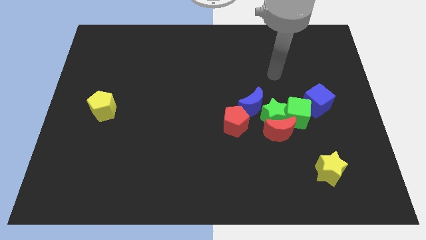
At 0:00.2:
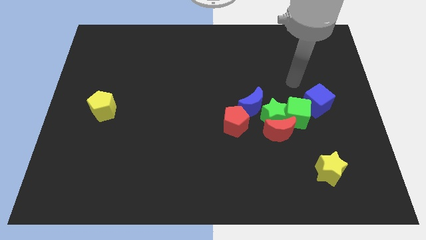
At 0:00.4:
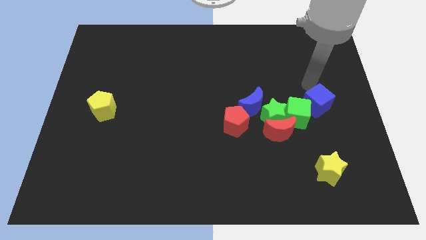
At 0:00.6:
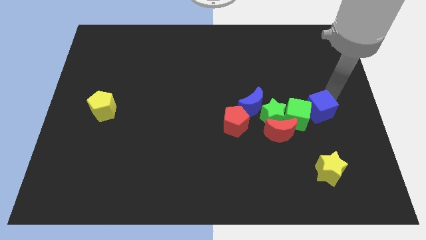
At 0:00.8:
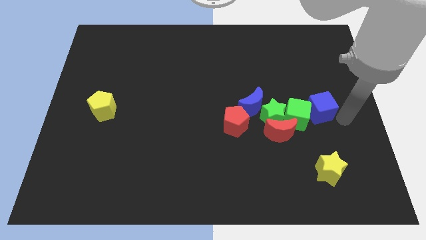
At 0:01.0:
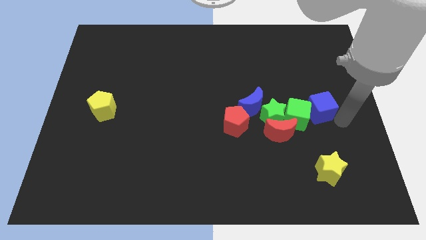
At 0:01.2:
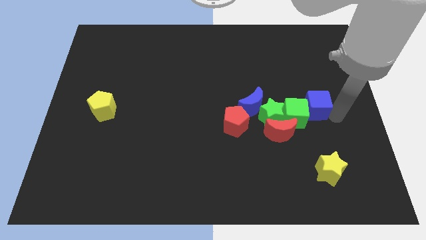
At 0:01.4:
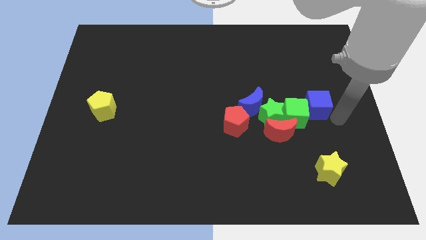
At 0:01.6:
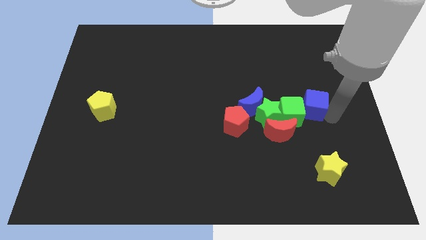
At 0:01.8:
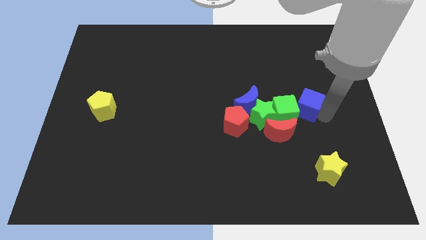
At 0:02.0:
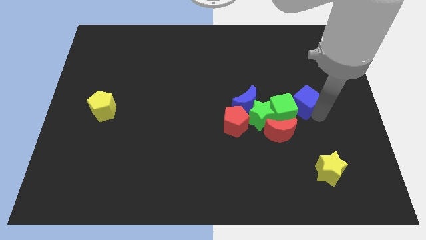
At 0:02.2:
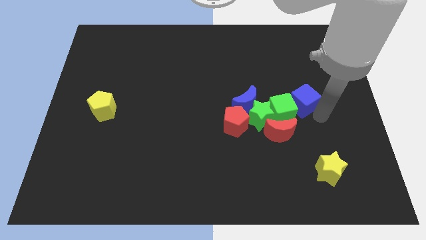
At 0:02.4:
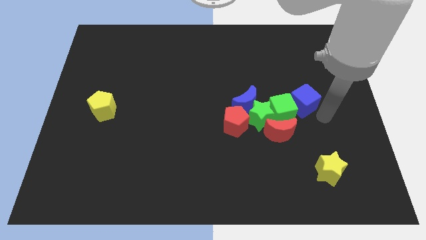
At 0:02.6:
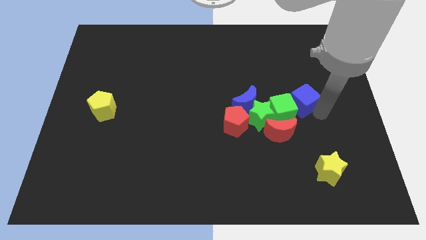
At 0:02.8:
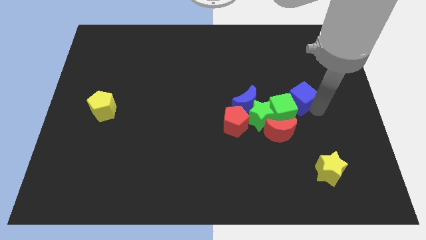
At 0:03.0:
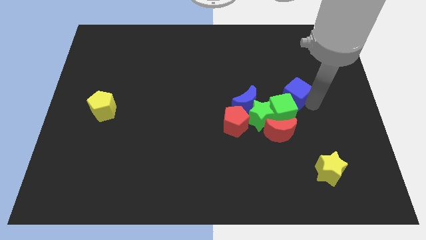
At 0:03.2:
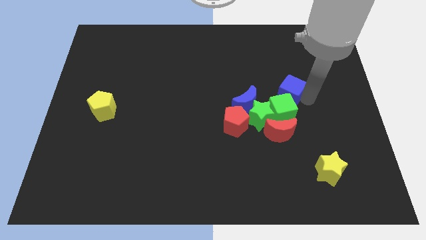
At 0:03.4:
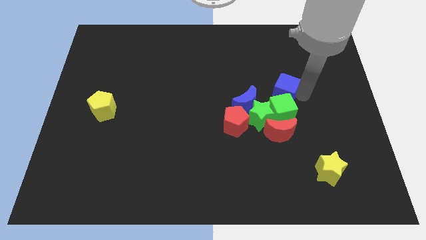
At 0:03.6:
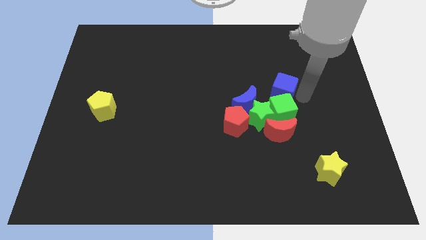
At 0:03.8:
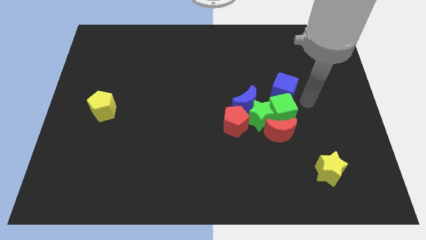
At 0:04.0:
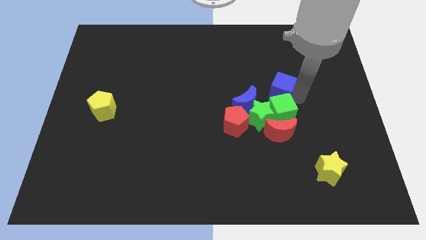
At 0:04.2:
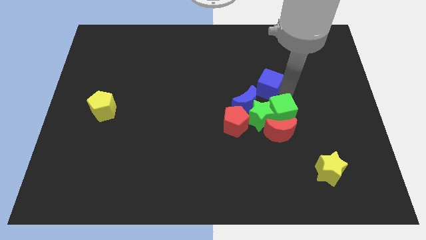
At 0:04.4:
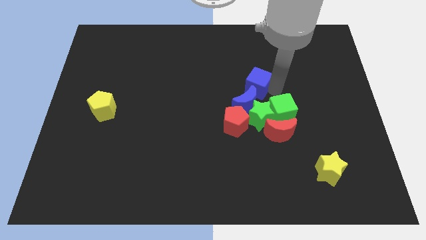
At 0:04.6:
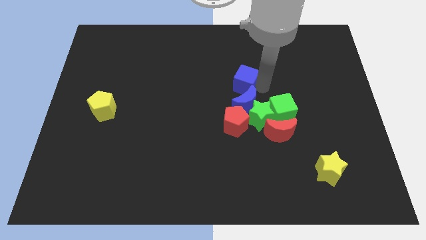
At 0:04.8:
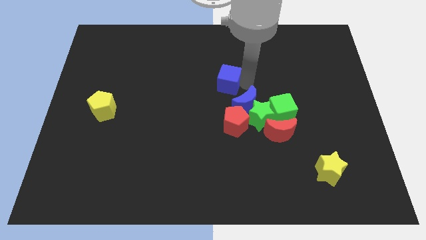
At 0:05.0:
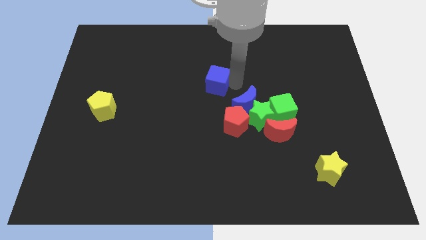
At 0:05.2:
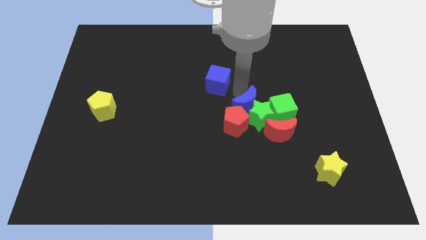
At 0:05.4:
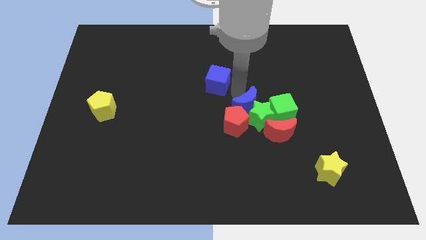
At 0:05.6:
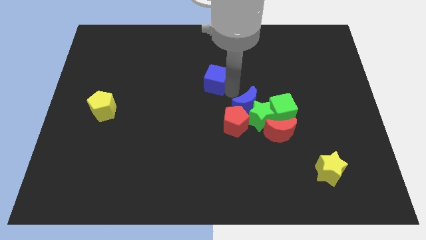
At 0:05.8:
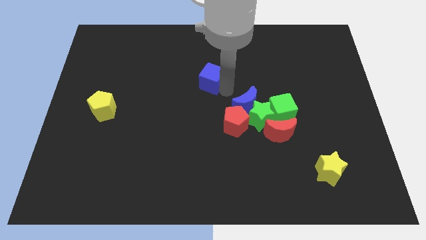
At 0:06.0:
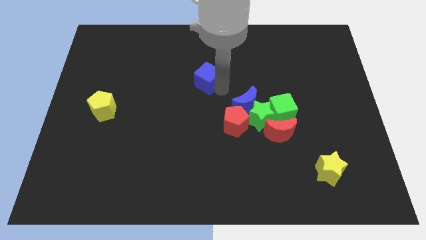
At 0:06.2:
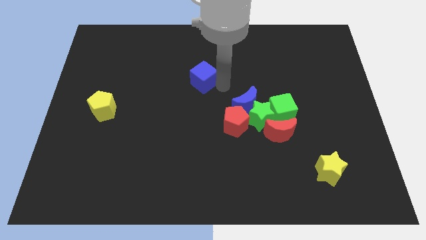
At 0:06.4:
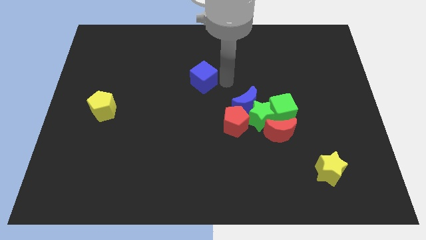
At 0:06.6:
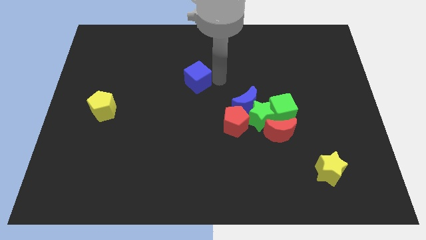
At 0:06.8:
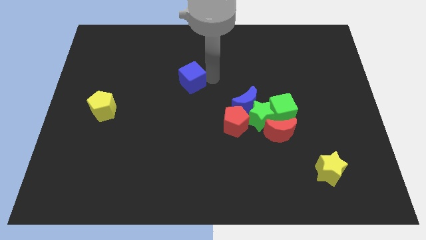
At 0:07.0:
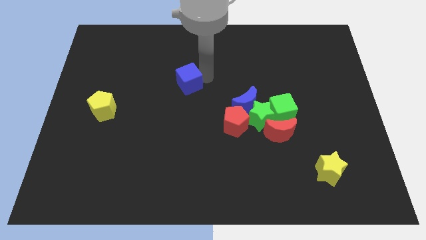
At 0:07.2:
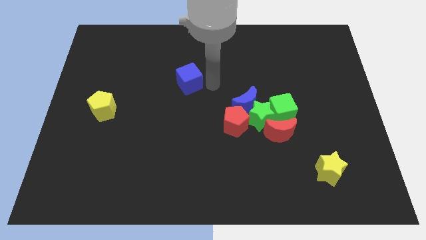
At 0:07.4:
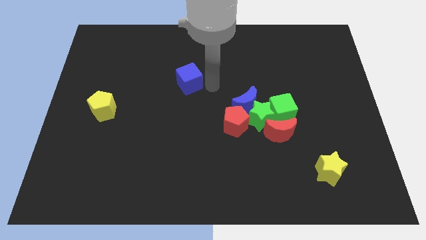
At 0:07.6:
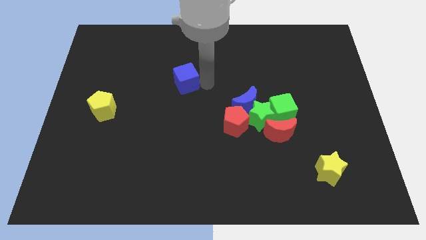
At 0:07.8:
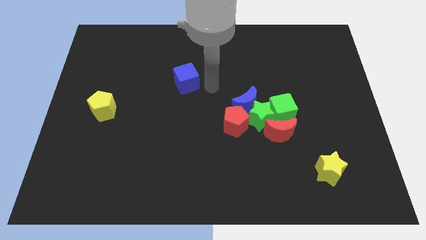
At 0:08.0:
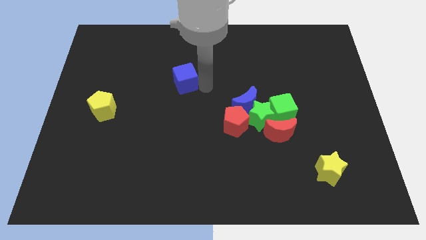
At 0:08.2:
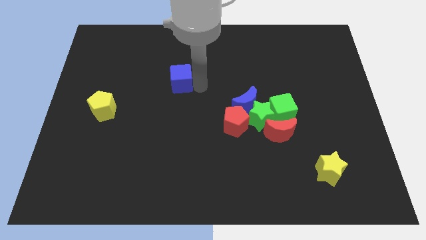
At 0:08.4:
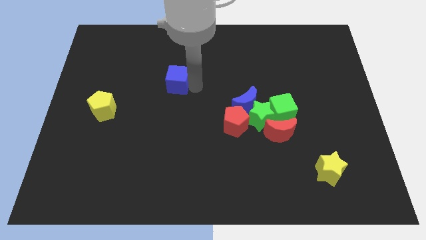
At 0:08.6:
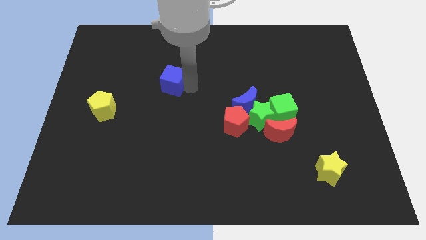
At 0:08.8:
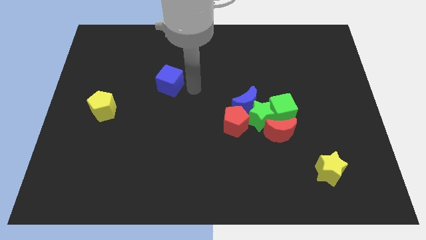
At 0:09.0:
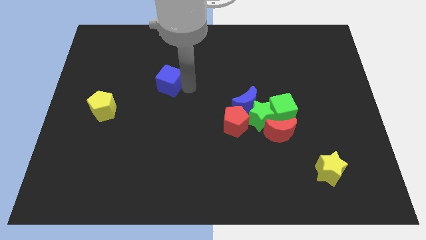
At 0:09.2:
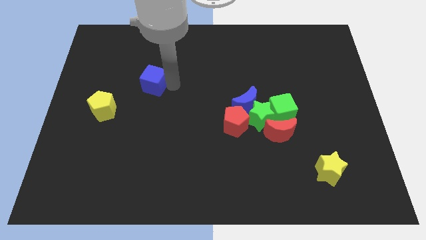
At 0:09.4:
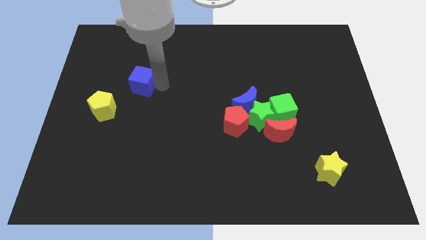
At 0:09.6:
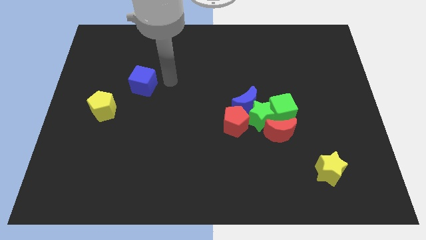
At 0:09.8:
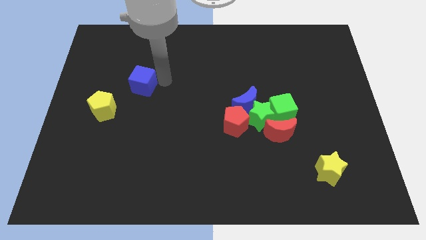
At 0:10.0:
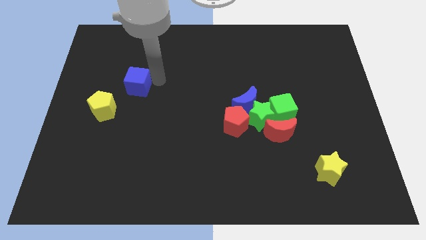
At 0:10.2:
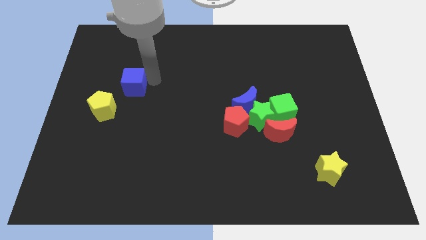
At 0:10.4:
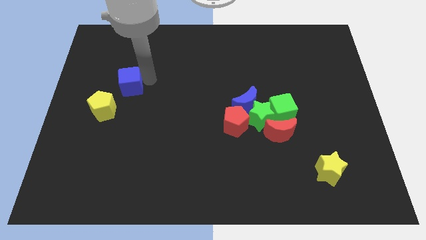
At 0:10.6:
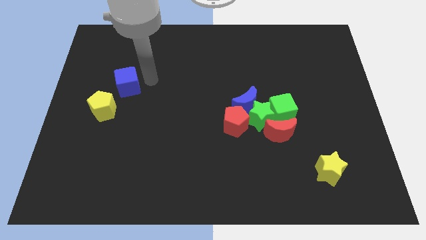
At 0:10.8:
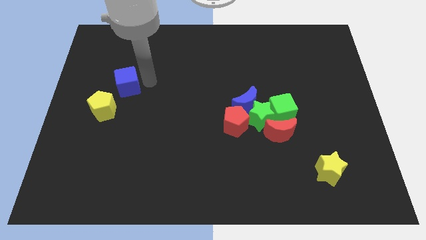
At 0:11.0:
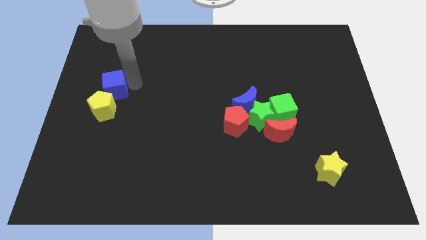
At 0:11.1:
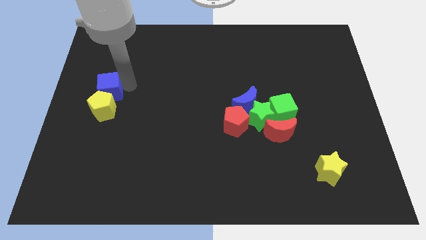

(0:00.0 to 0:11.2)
put the blue cube to the center left
